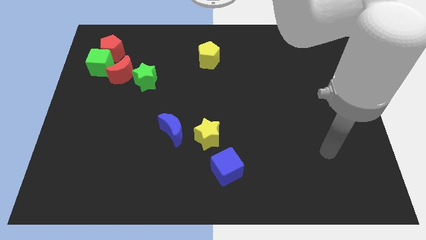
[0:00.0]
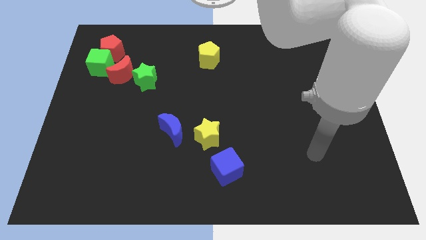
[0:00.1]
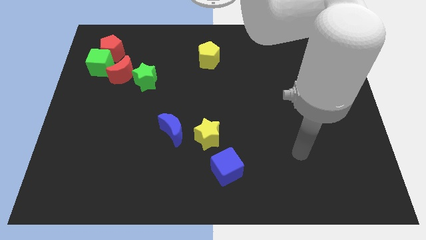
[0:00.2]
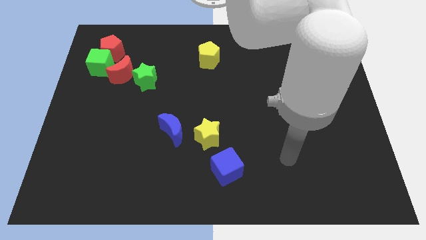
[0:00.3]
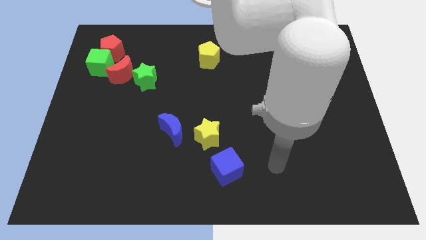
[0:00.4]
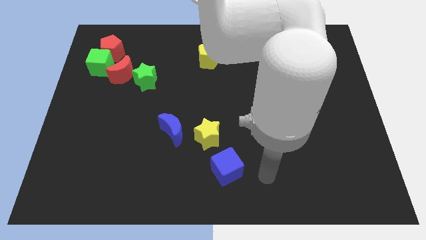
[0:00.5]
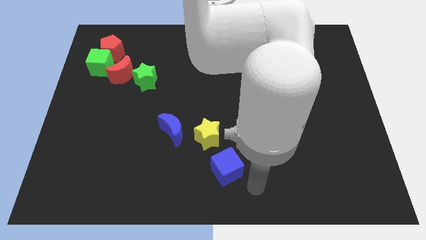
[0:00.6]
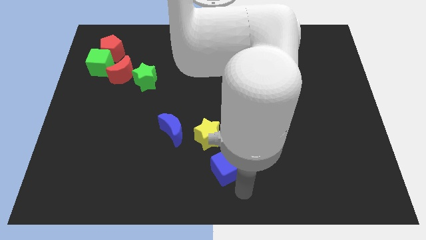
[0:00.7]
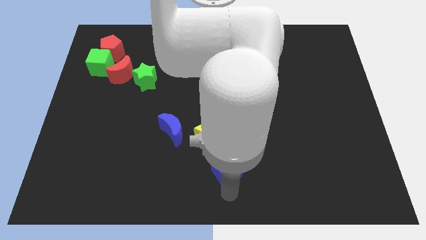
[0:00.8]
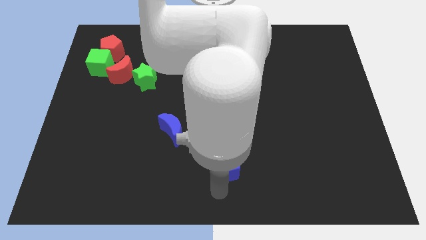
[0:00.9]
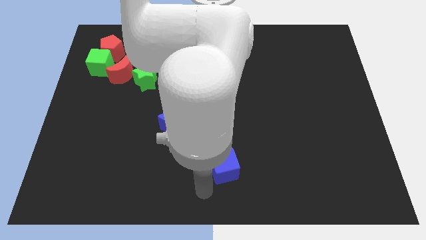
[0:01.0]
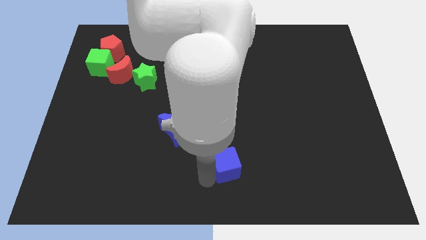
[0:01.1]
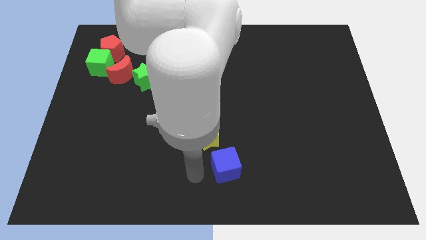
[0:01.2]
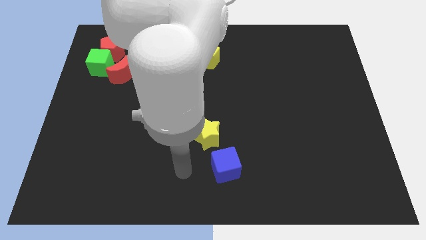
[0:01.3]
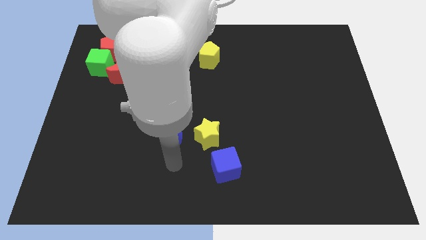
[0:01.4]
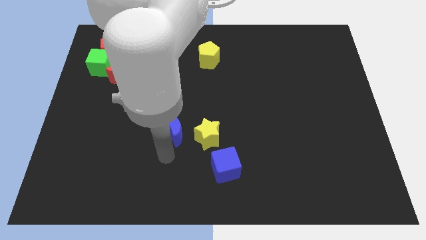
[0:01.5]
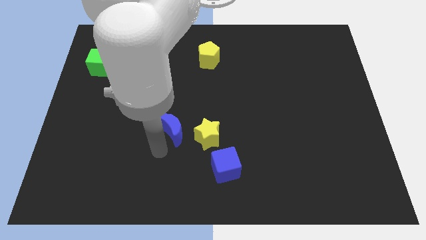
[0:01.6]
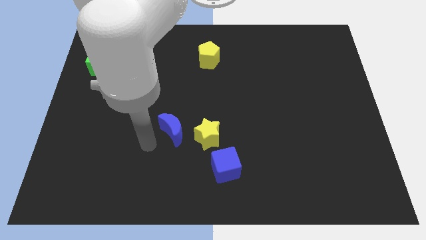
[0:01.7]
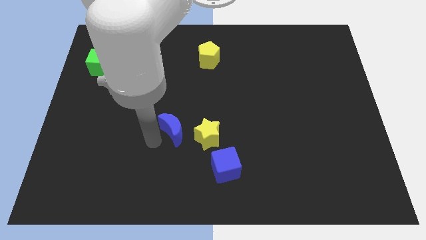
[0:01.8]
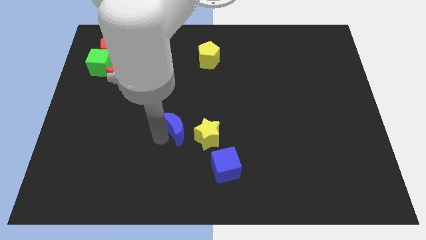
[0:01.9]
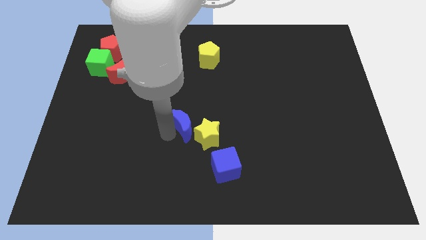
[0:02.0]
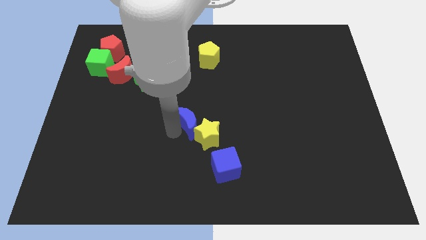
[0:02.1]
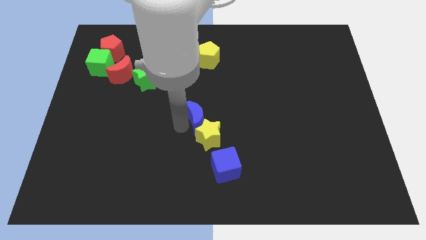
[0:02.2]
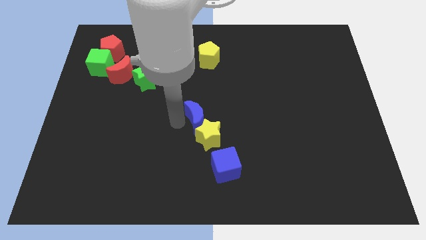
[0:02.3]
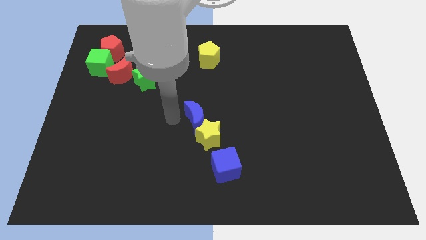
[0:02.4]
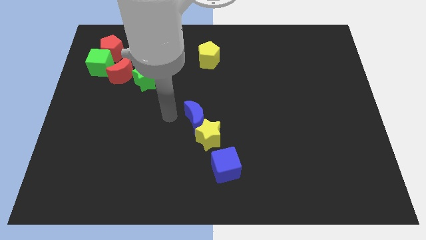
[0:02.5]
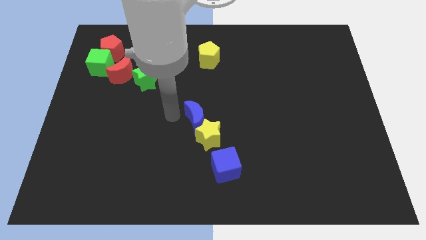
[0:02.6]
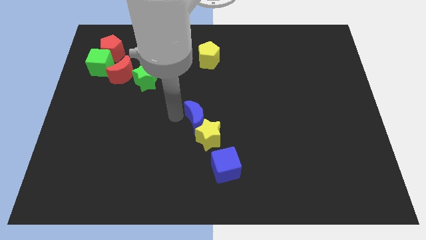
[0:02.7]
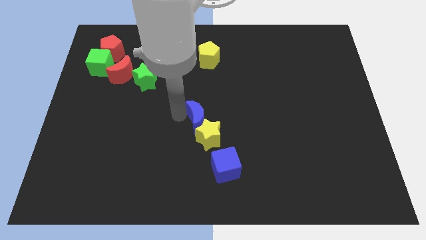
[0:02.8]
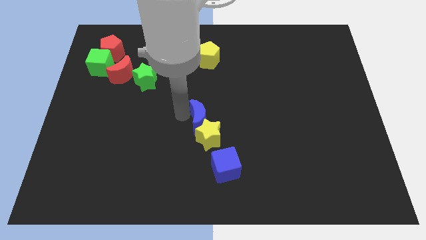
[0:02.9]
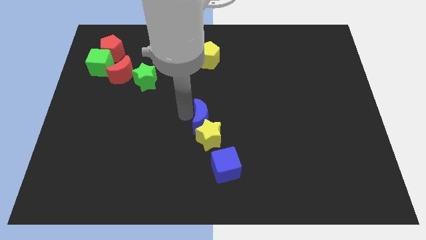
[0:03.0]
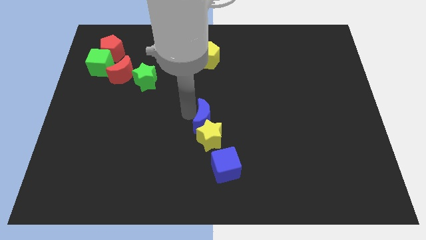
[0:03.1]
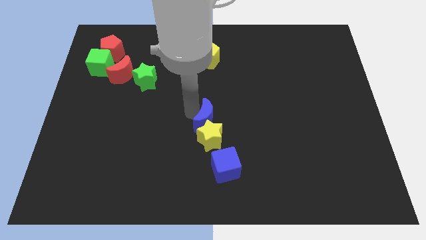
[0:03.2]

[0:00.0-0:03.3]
slide the blue moon a little bit to the right

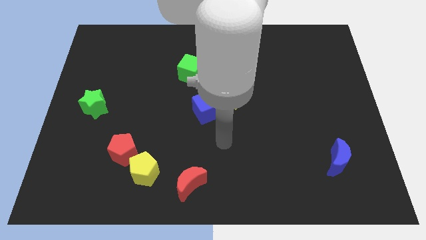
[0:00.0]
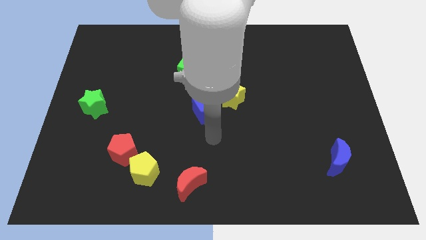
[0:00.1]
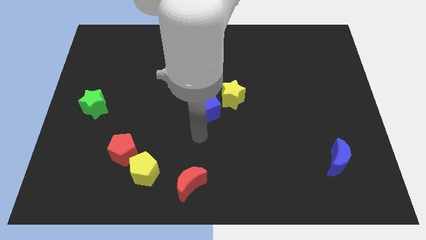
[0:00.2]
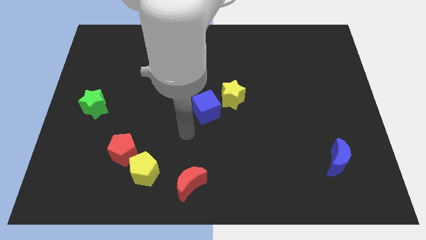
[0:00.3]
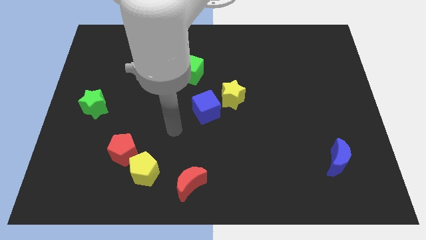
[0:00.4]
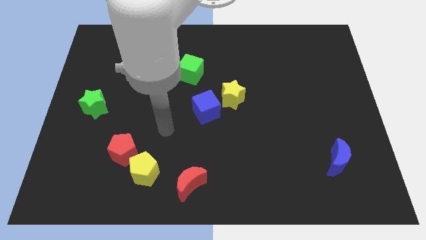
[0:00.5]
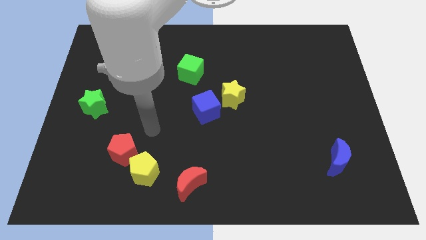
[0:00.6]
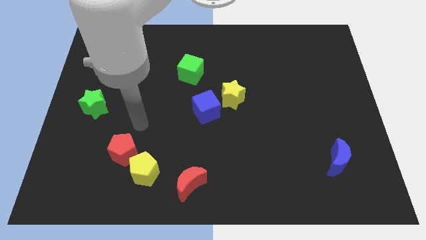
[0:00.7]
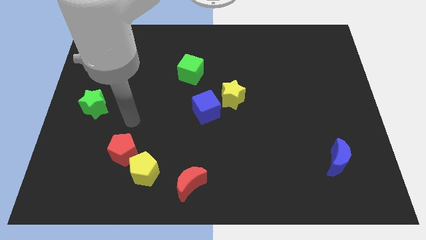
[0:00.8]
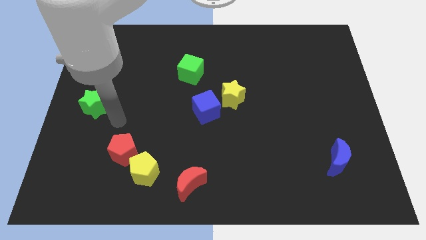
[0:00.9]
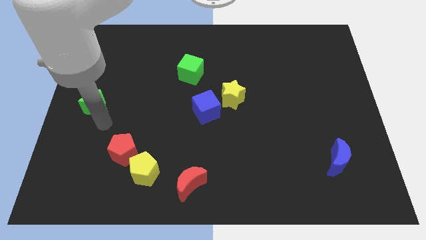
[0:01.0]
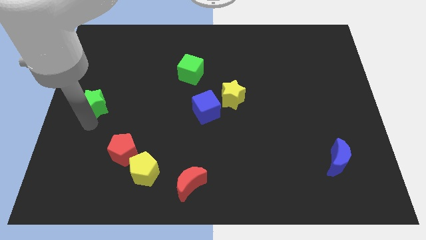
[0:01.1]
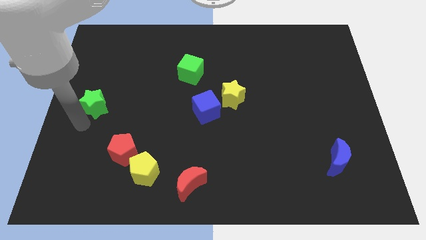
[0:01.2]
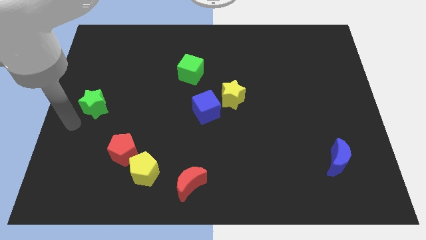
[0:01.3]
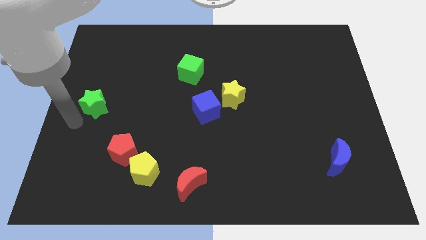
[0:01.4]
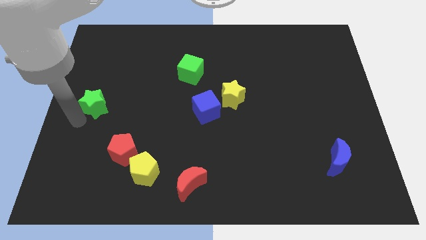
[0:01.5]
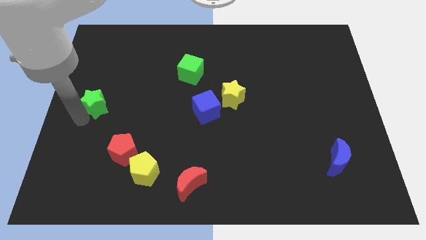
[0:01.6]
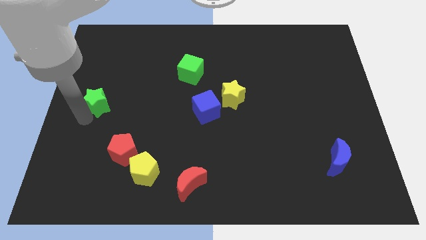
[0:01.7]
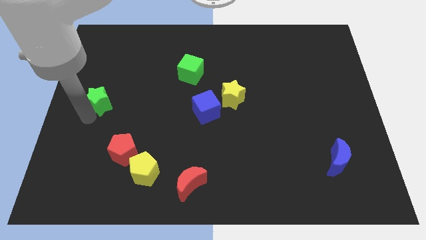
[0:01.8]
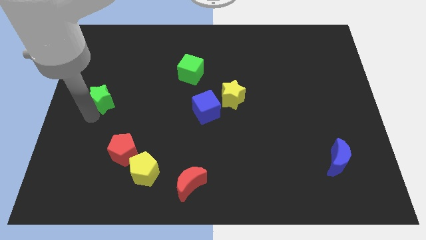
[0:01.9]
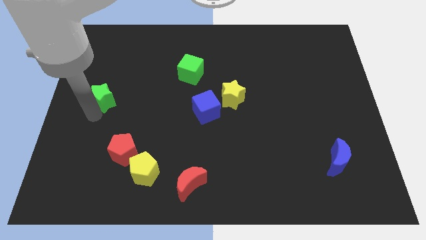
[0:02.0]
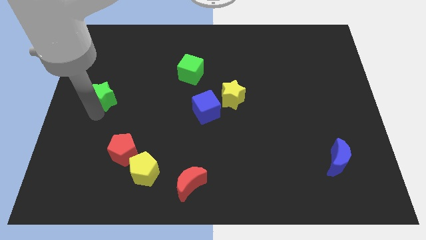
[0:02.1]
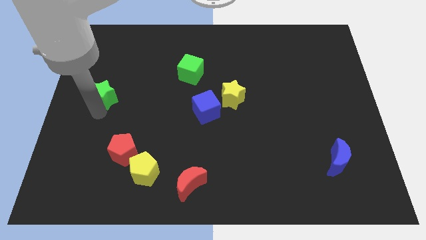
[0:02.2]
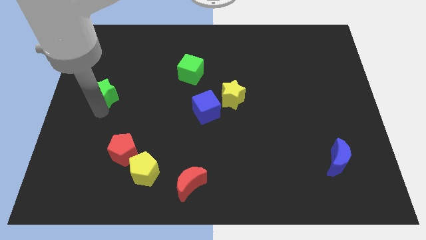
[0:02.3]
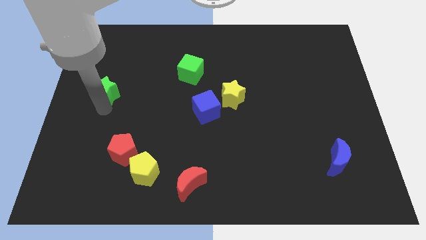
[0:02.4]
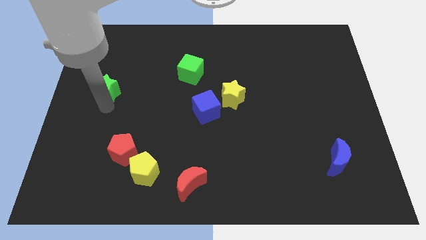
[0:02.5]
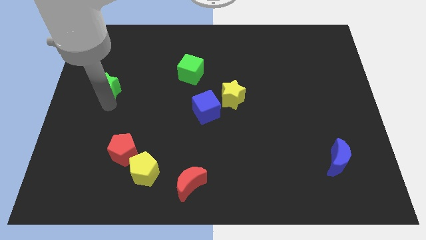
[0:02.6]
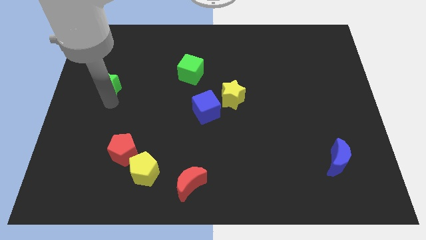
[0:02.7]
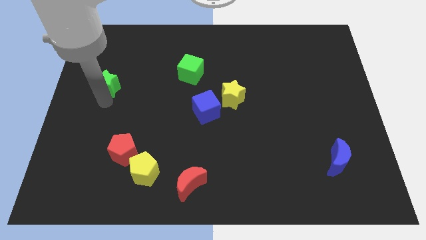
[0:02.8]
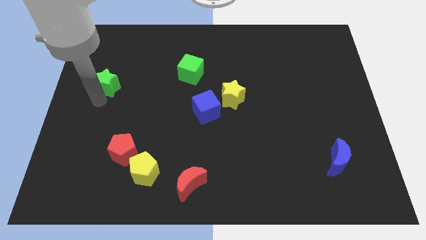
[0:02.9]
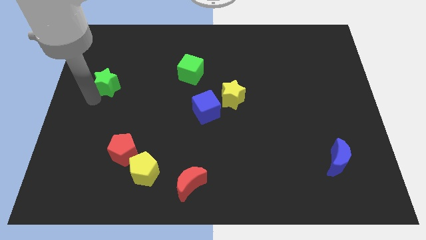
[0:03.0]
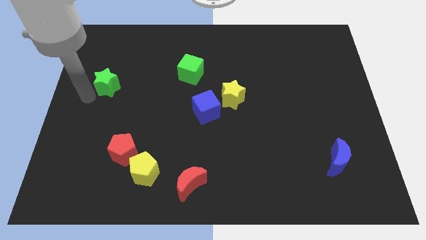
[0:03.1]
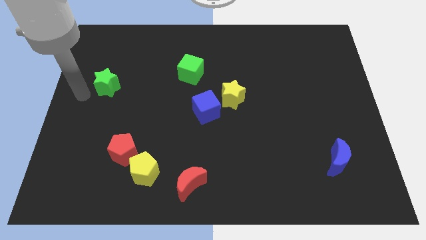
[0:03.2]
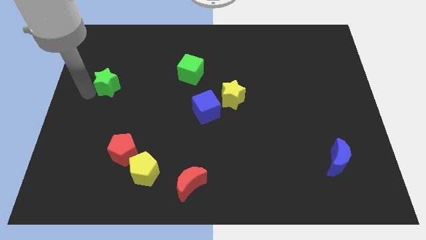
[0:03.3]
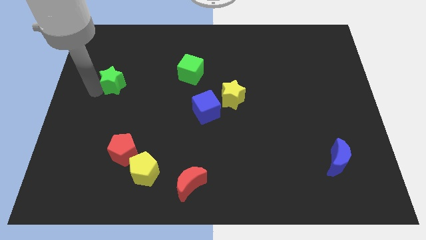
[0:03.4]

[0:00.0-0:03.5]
move the green star somewhat diagonally upwards and right

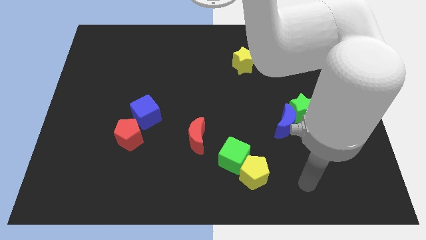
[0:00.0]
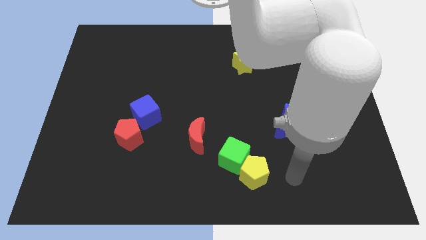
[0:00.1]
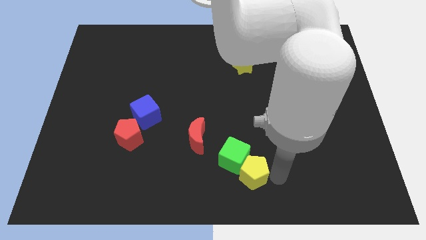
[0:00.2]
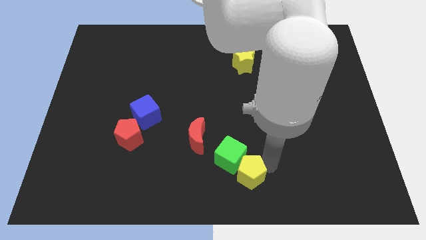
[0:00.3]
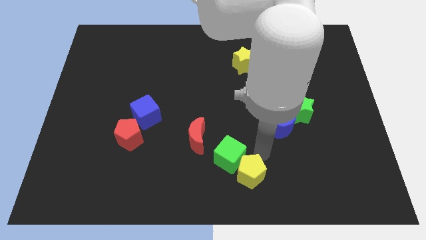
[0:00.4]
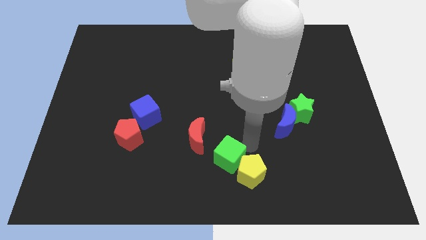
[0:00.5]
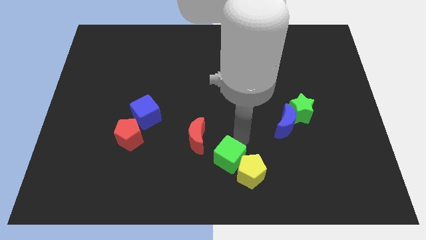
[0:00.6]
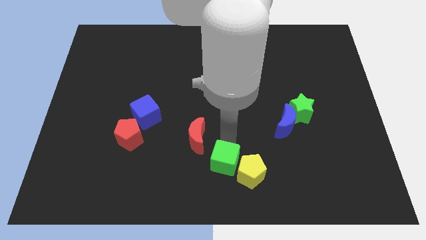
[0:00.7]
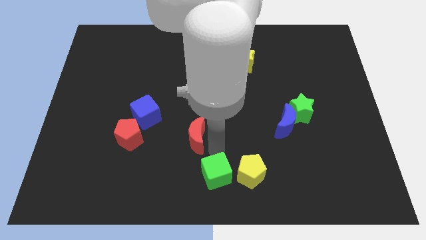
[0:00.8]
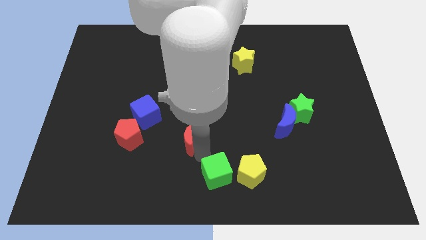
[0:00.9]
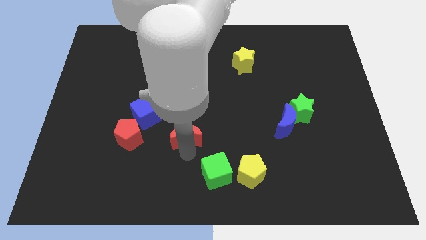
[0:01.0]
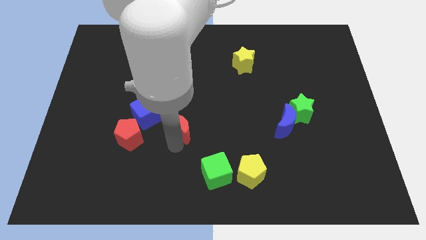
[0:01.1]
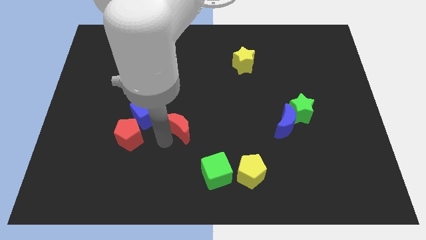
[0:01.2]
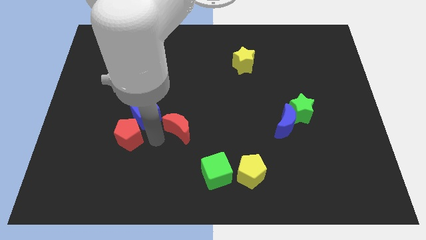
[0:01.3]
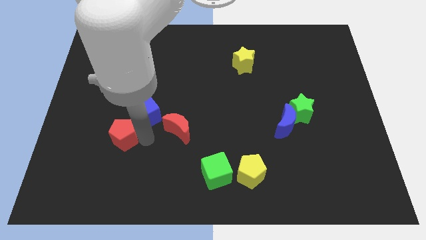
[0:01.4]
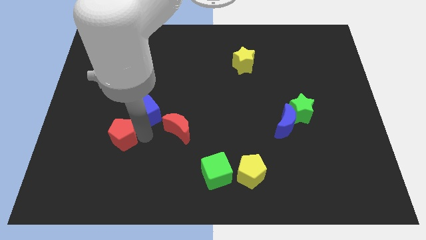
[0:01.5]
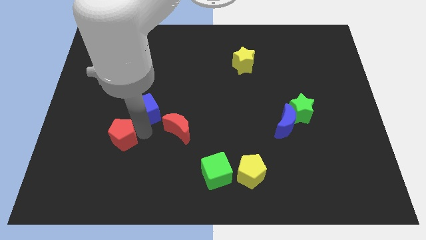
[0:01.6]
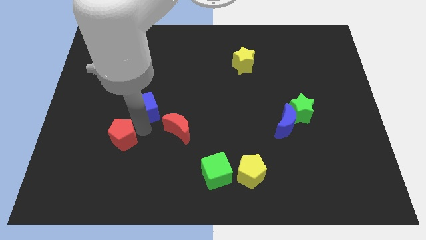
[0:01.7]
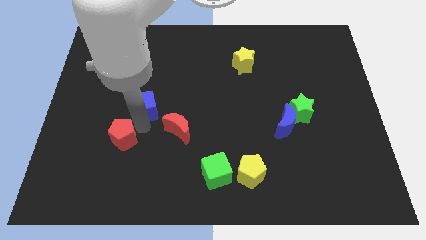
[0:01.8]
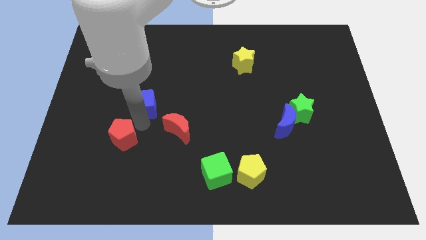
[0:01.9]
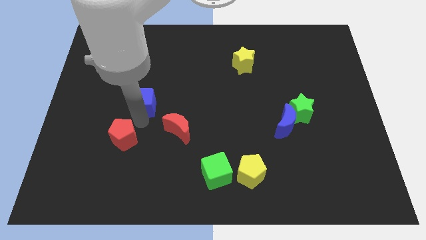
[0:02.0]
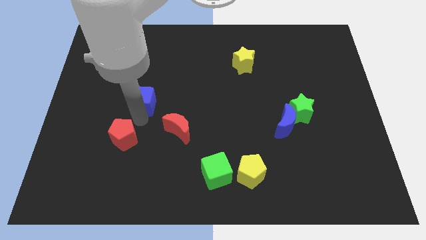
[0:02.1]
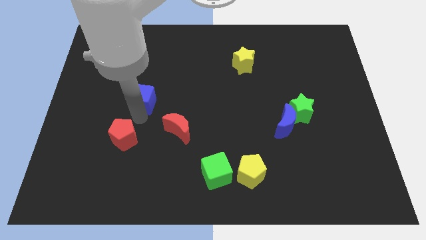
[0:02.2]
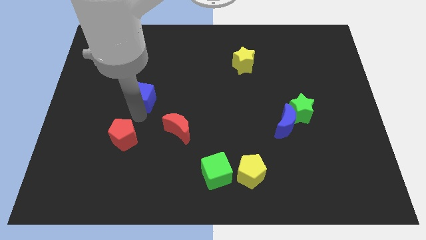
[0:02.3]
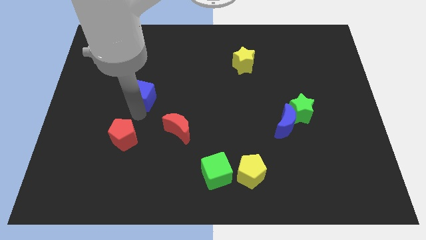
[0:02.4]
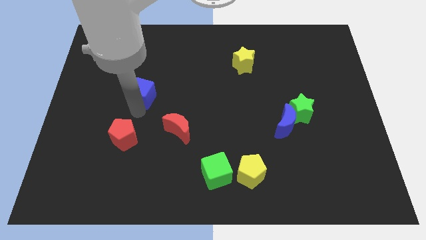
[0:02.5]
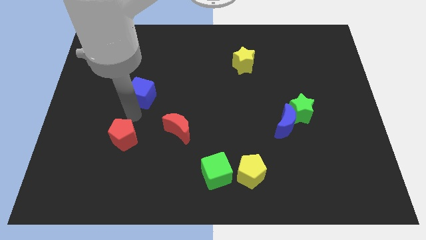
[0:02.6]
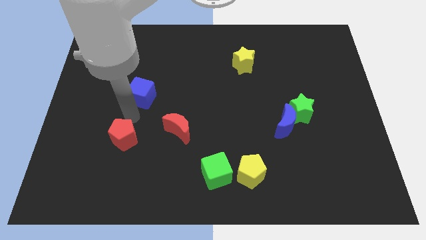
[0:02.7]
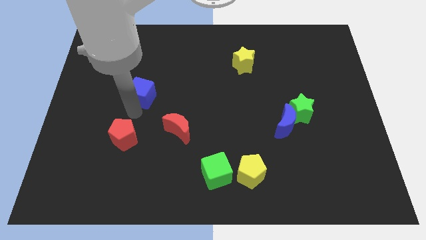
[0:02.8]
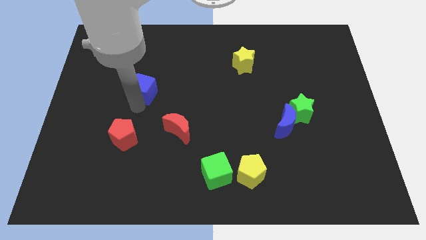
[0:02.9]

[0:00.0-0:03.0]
slightly move the blue cube upwards
